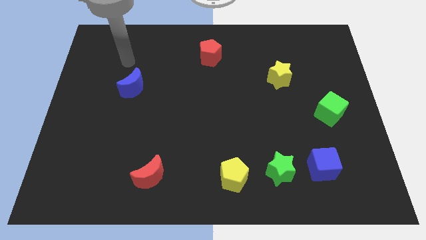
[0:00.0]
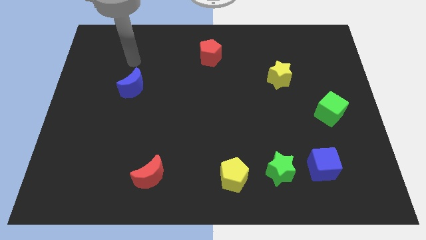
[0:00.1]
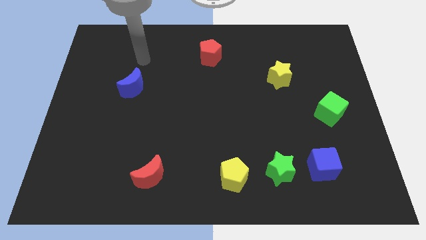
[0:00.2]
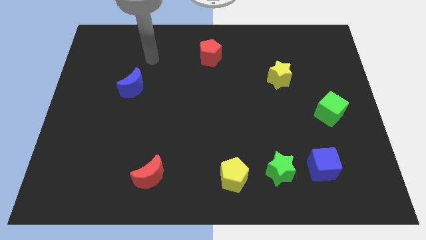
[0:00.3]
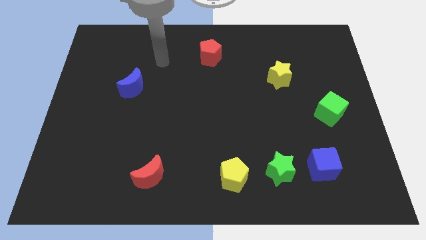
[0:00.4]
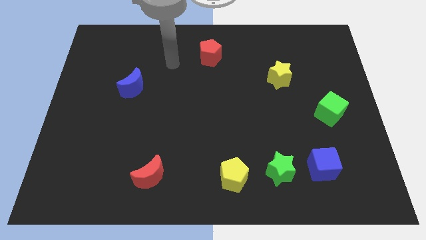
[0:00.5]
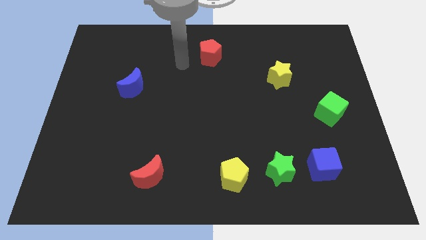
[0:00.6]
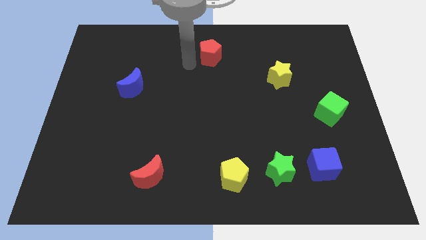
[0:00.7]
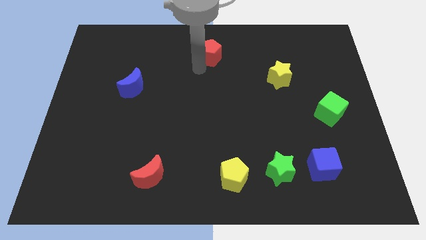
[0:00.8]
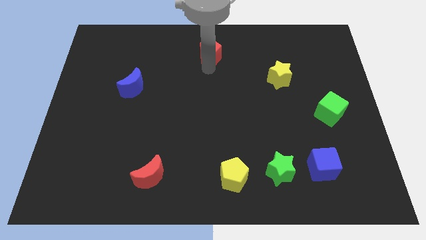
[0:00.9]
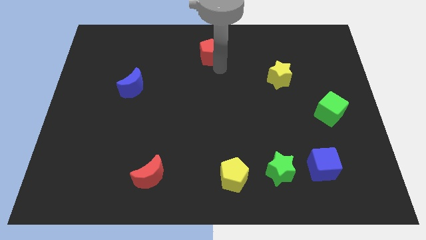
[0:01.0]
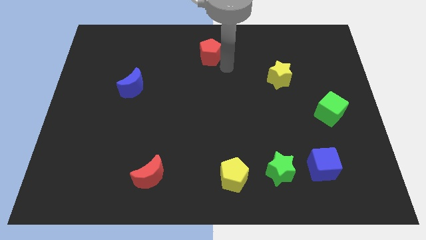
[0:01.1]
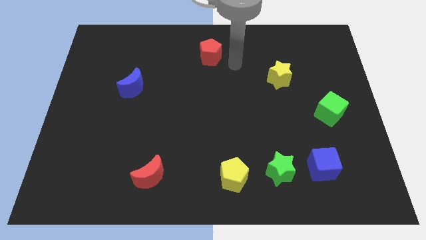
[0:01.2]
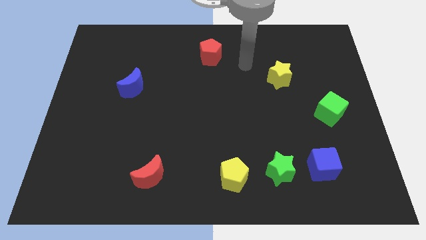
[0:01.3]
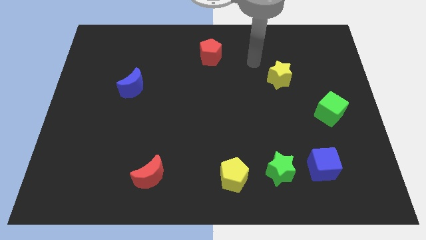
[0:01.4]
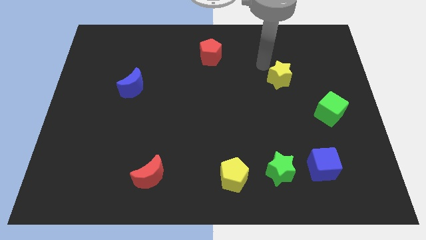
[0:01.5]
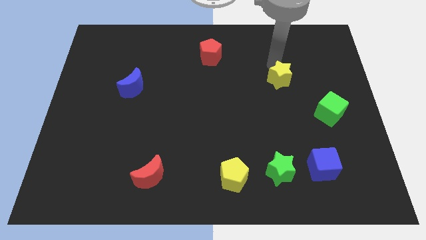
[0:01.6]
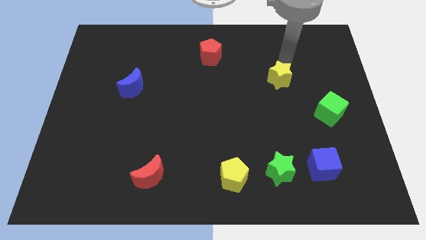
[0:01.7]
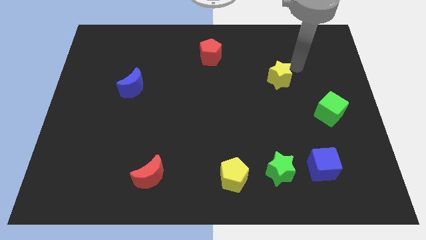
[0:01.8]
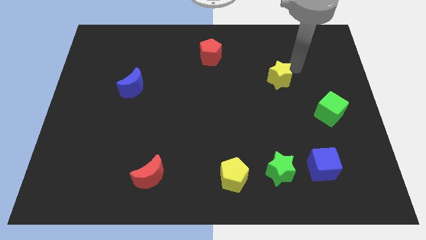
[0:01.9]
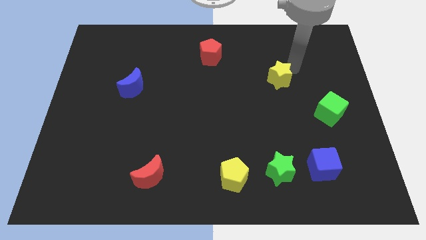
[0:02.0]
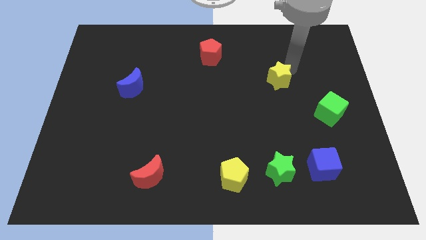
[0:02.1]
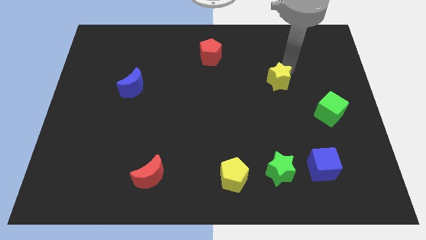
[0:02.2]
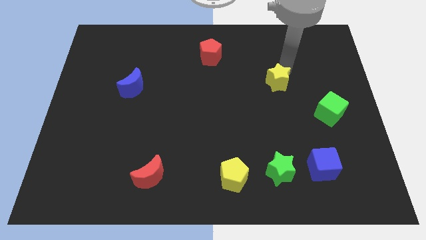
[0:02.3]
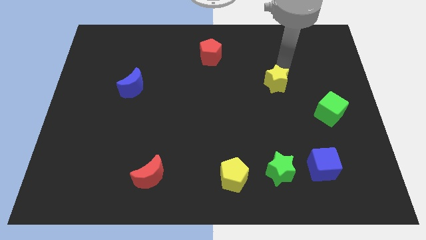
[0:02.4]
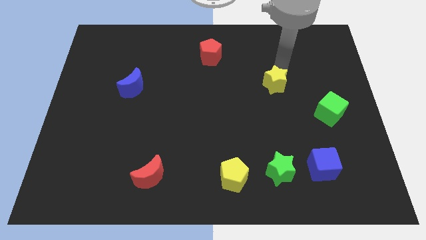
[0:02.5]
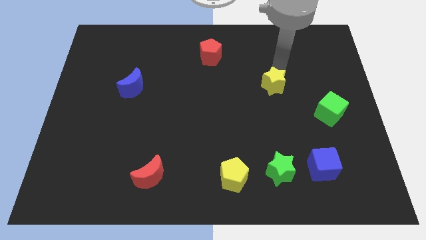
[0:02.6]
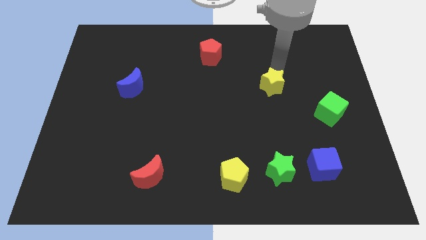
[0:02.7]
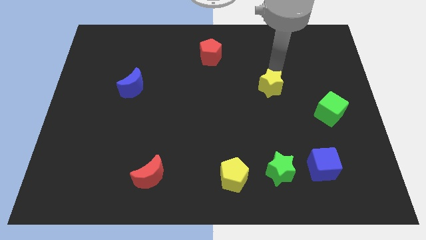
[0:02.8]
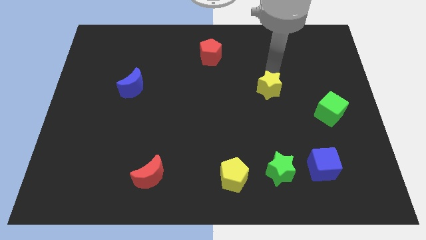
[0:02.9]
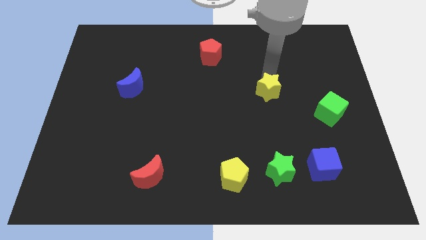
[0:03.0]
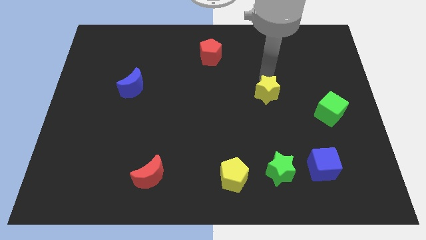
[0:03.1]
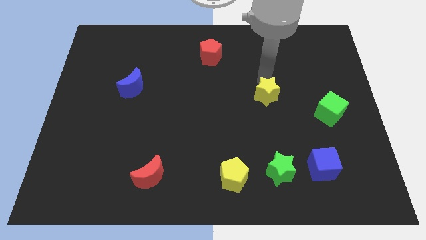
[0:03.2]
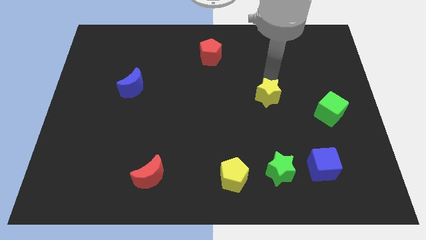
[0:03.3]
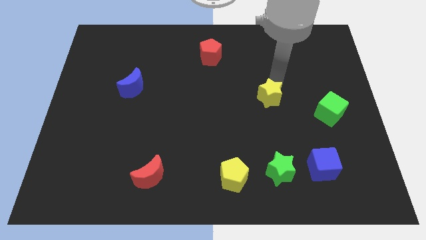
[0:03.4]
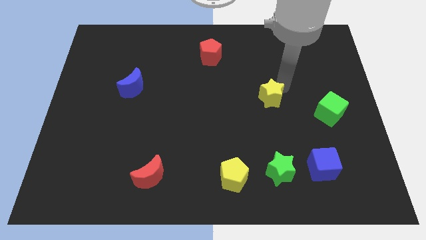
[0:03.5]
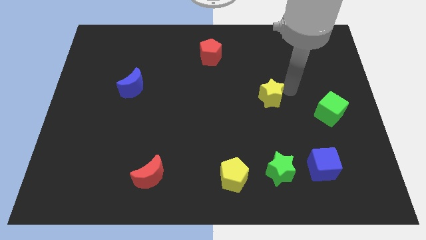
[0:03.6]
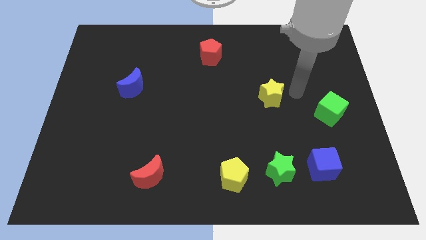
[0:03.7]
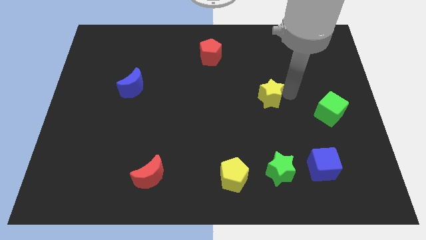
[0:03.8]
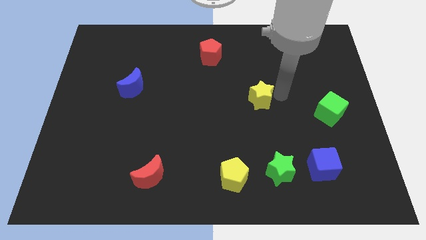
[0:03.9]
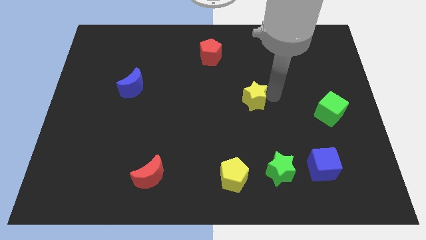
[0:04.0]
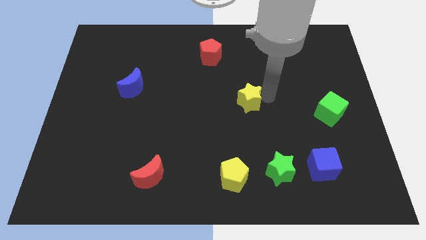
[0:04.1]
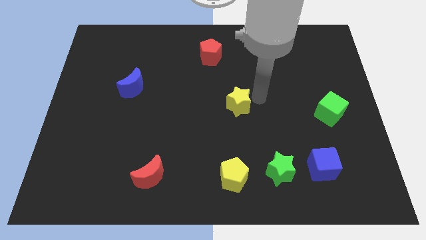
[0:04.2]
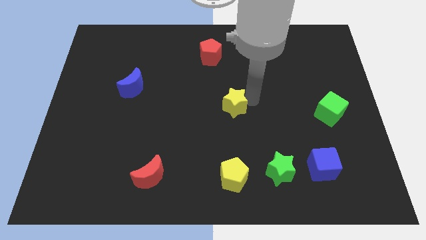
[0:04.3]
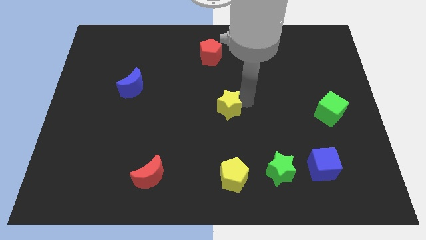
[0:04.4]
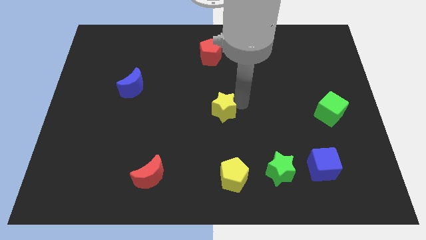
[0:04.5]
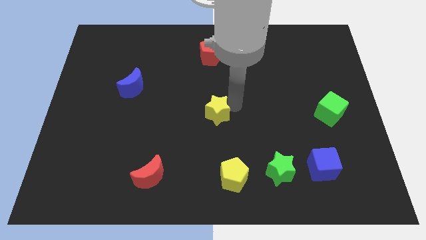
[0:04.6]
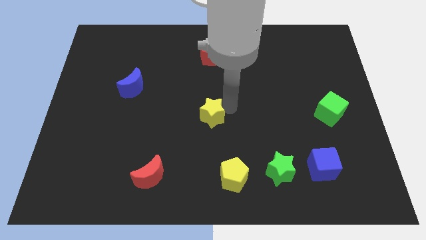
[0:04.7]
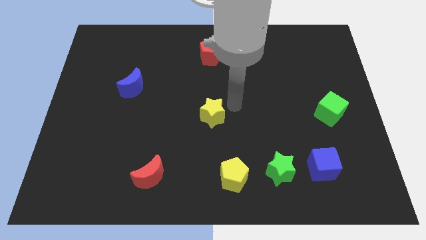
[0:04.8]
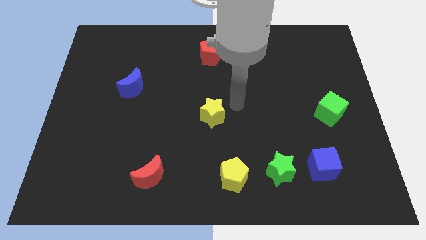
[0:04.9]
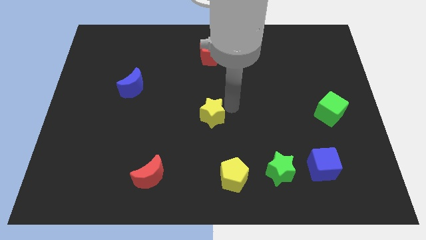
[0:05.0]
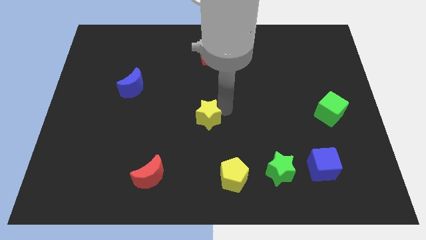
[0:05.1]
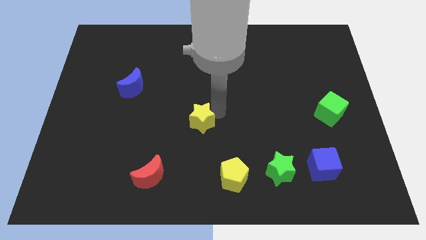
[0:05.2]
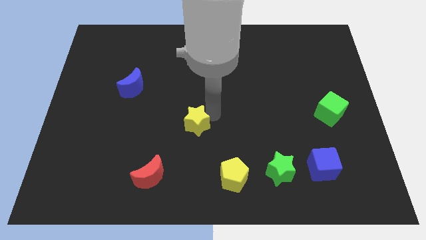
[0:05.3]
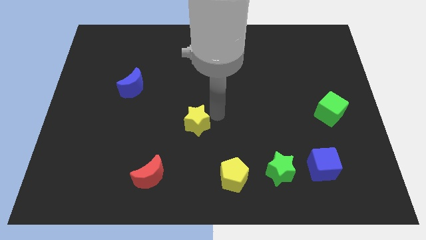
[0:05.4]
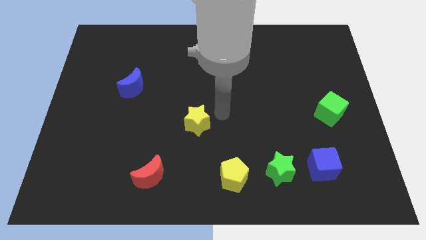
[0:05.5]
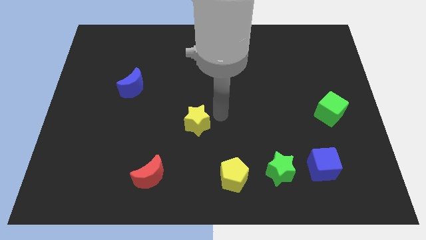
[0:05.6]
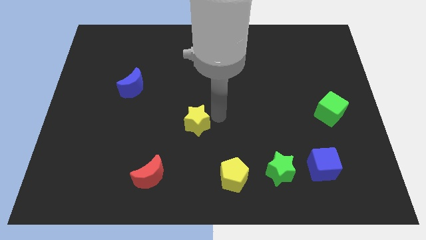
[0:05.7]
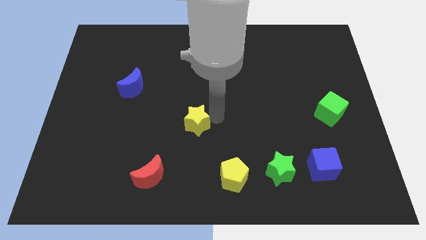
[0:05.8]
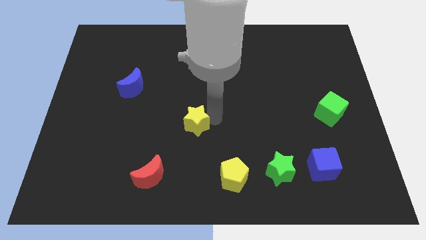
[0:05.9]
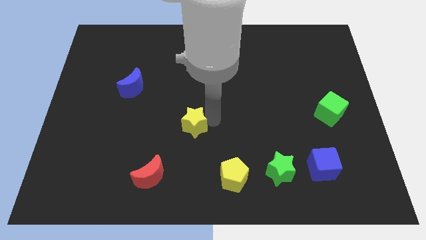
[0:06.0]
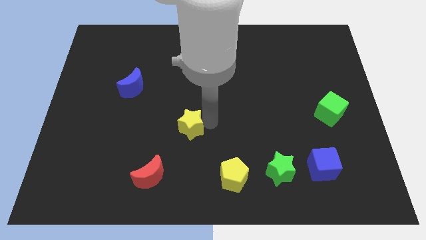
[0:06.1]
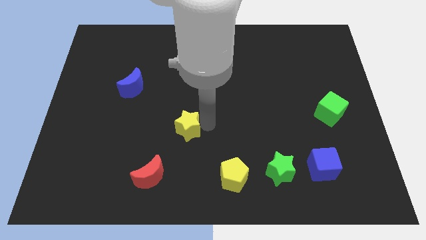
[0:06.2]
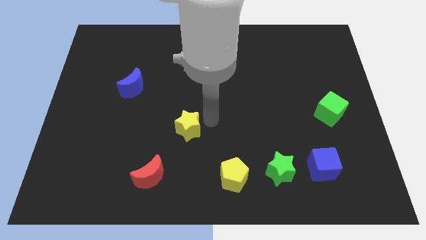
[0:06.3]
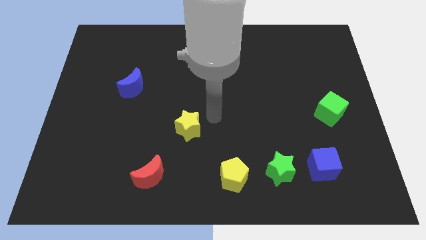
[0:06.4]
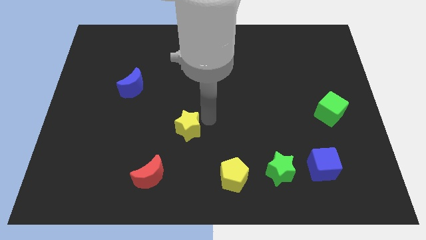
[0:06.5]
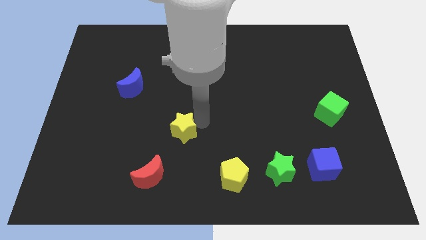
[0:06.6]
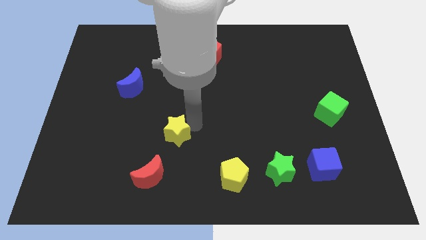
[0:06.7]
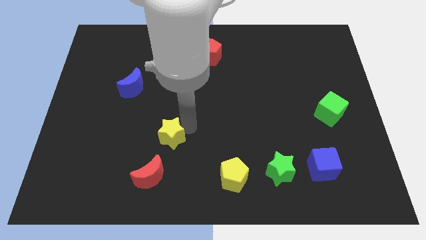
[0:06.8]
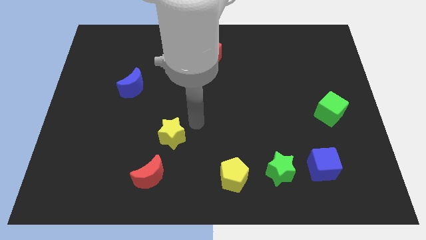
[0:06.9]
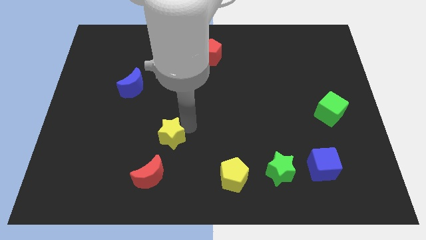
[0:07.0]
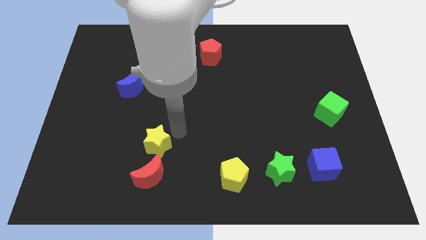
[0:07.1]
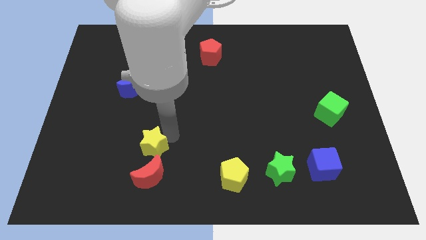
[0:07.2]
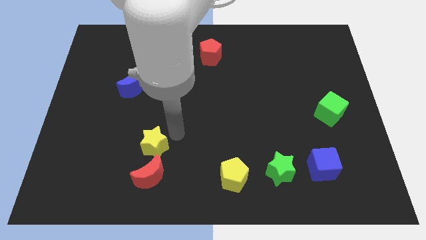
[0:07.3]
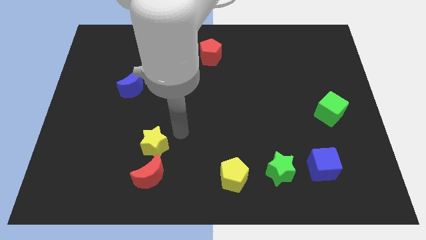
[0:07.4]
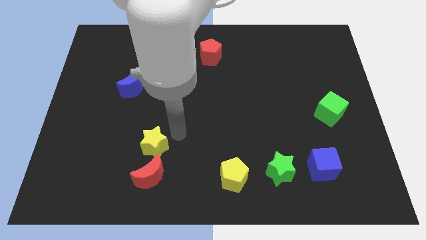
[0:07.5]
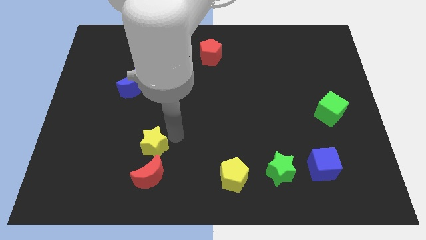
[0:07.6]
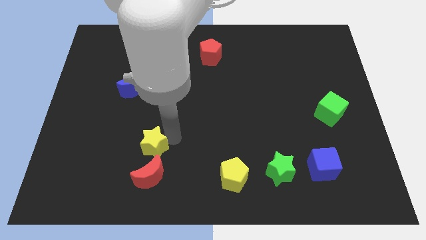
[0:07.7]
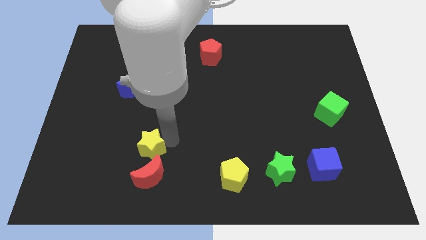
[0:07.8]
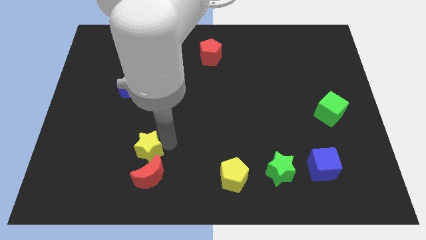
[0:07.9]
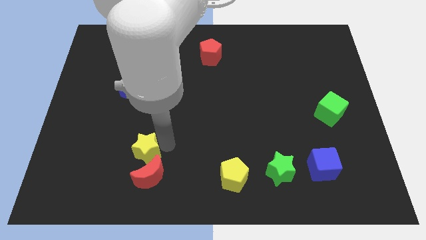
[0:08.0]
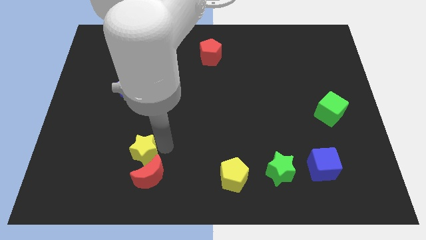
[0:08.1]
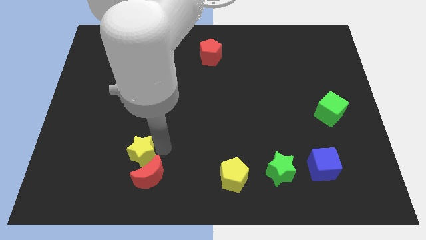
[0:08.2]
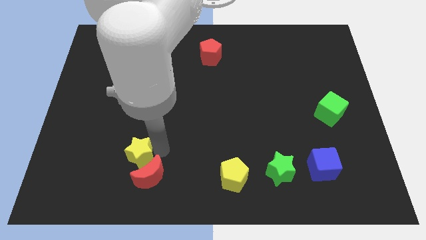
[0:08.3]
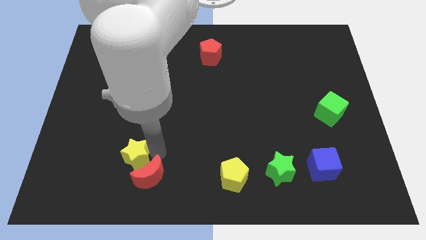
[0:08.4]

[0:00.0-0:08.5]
put the yellow star left of the red moon
